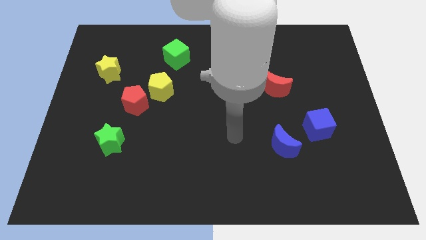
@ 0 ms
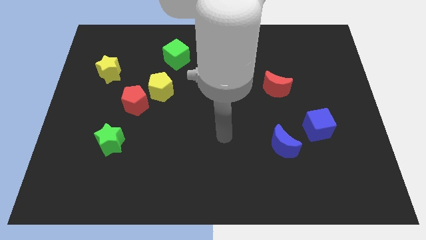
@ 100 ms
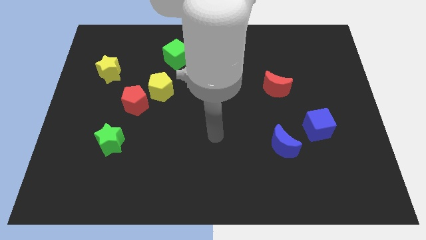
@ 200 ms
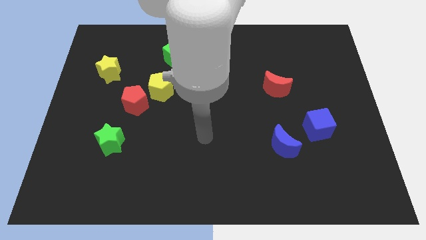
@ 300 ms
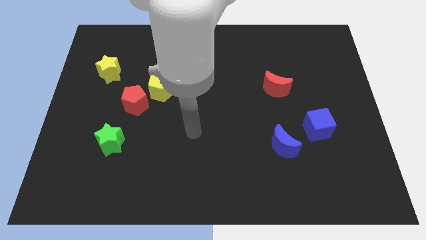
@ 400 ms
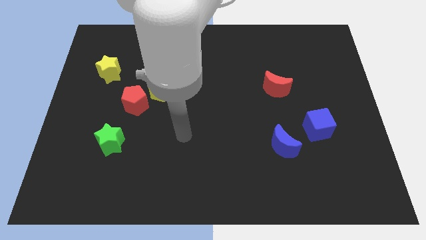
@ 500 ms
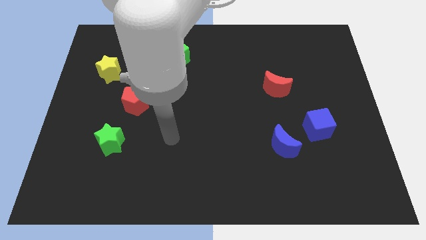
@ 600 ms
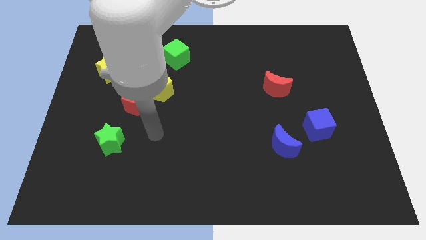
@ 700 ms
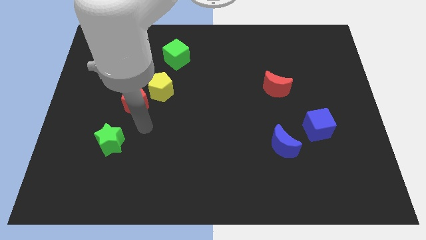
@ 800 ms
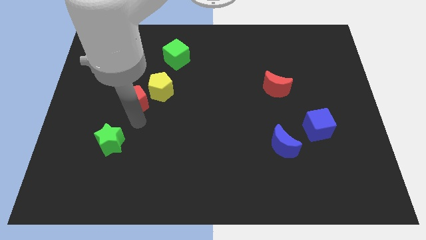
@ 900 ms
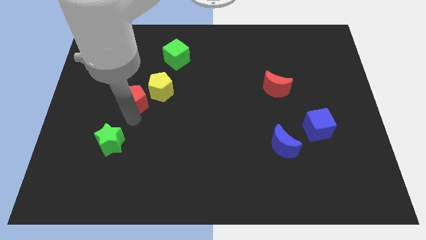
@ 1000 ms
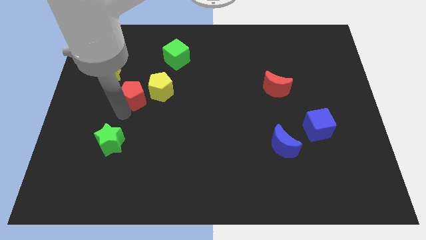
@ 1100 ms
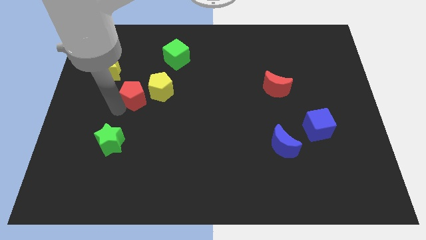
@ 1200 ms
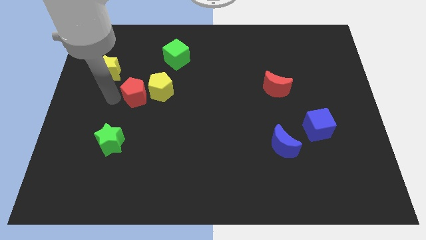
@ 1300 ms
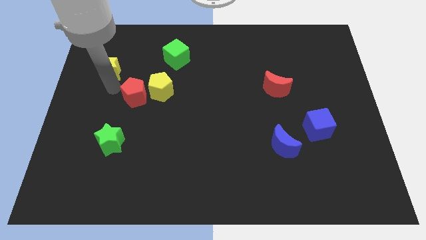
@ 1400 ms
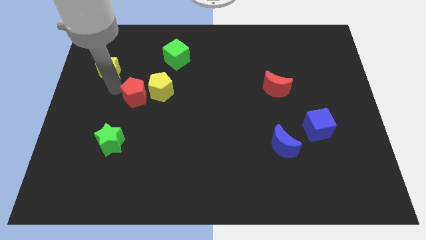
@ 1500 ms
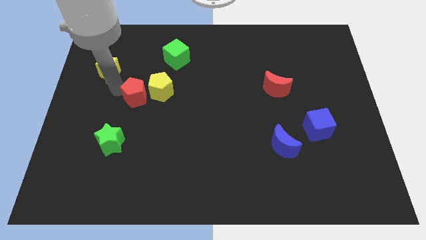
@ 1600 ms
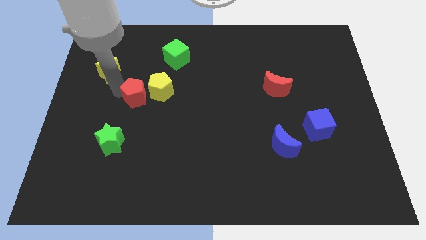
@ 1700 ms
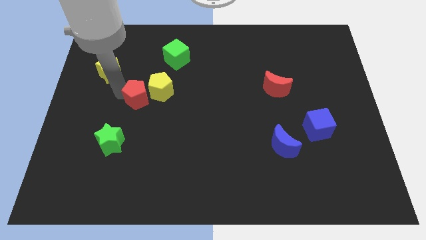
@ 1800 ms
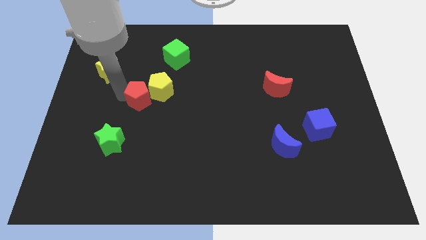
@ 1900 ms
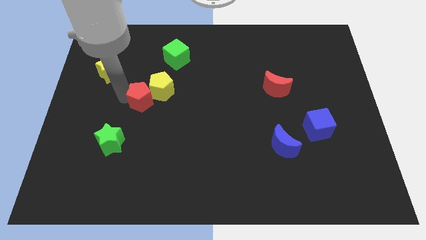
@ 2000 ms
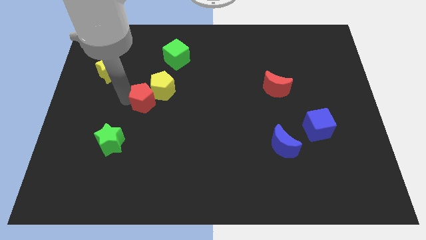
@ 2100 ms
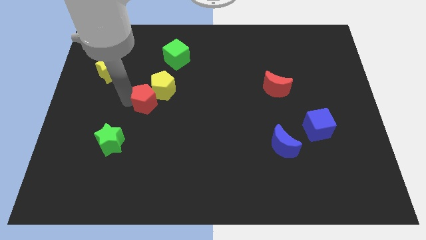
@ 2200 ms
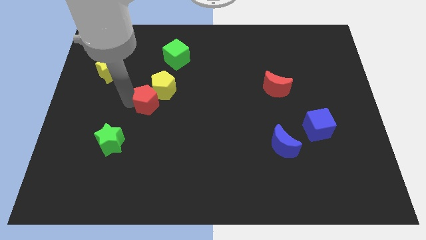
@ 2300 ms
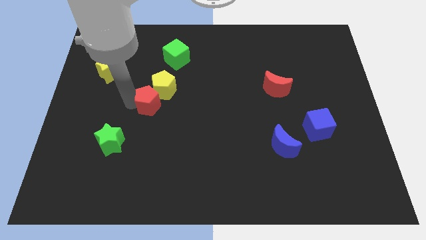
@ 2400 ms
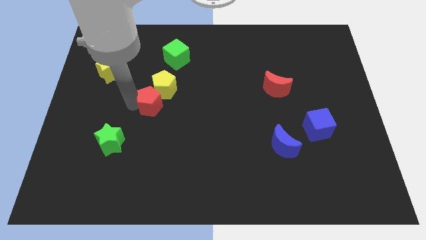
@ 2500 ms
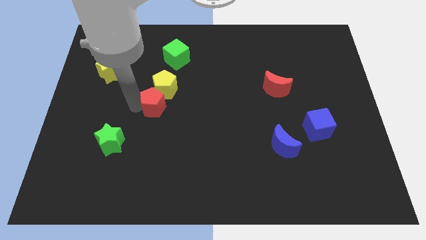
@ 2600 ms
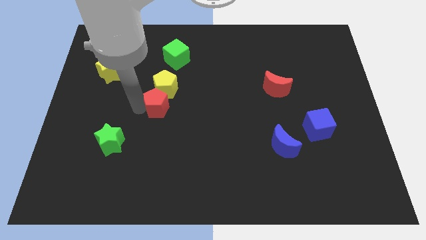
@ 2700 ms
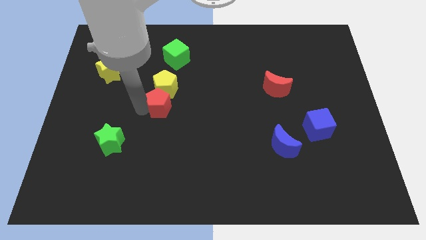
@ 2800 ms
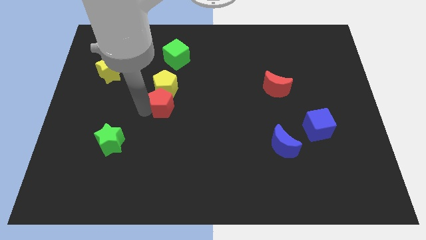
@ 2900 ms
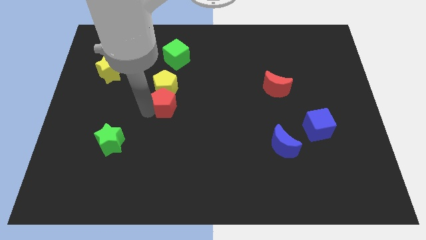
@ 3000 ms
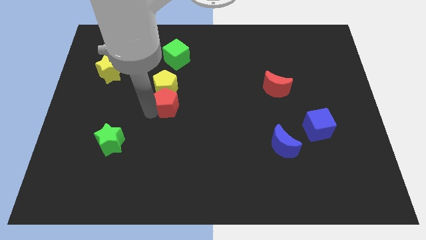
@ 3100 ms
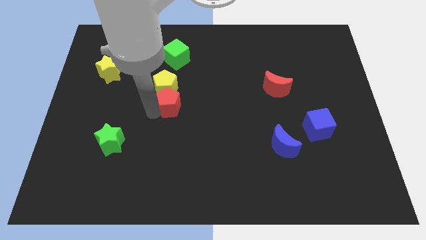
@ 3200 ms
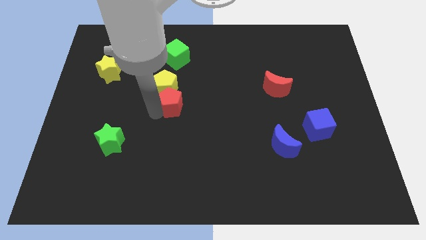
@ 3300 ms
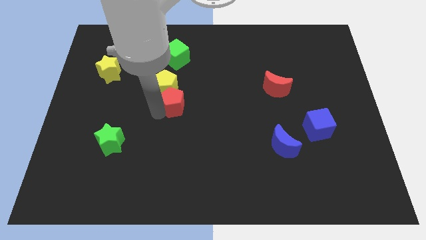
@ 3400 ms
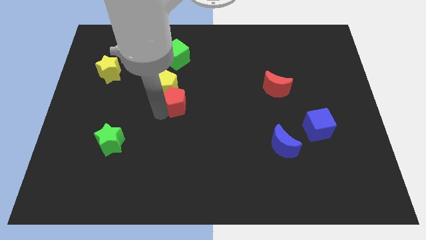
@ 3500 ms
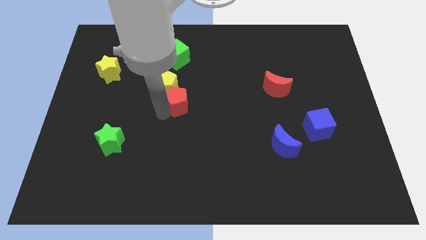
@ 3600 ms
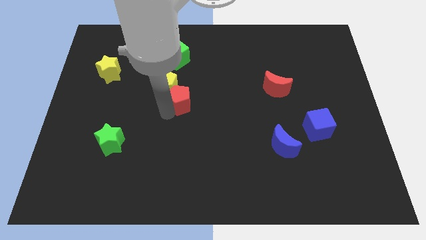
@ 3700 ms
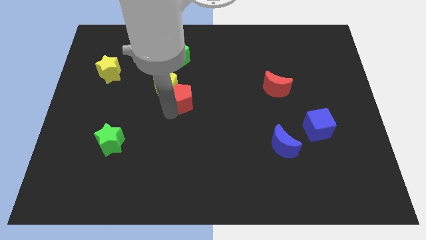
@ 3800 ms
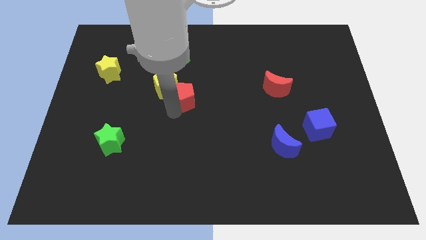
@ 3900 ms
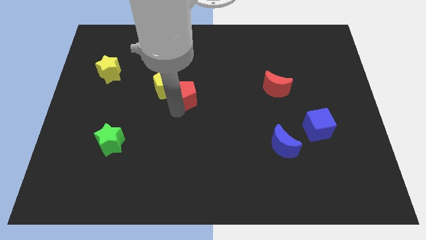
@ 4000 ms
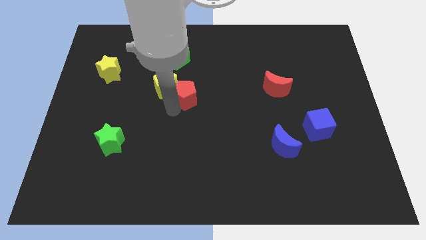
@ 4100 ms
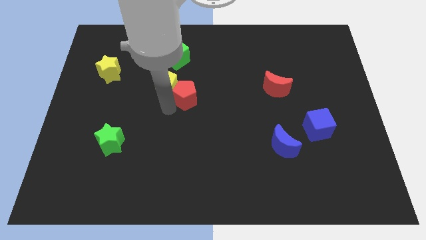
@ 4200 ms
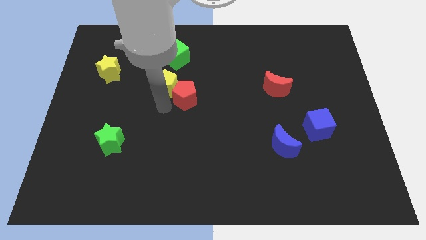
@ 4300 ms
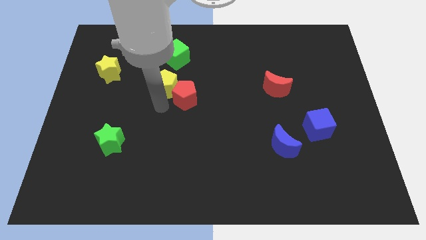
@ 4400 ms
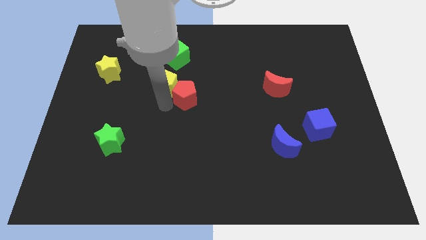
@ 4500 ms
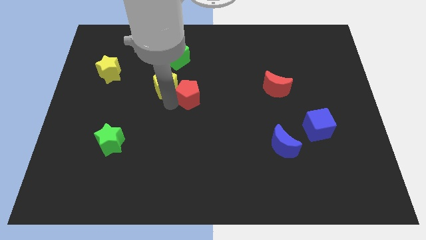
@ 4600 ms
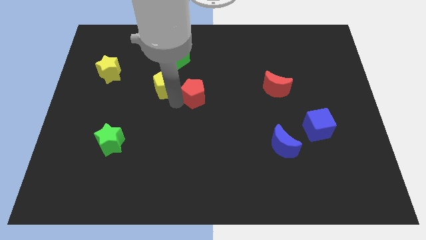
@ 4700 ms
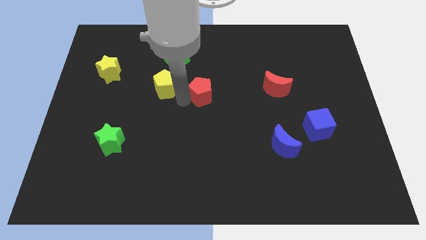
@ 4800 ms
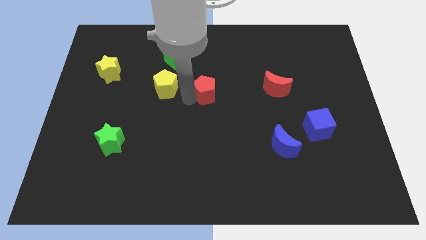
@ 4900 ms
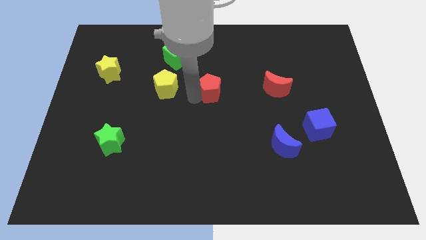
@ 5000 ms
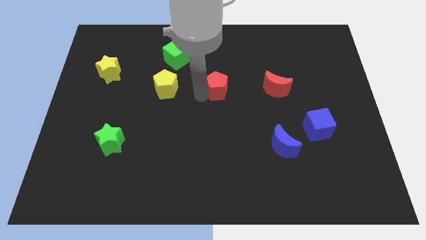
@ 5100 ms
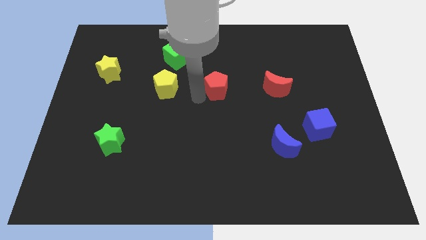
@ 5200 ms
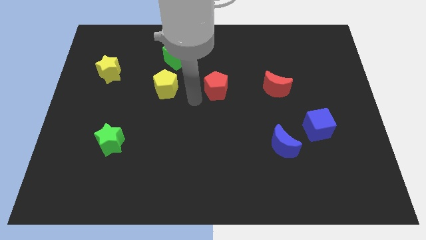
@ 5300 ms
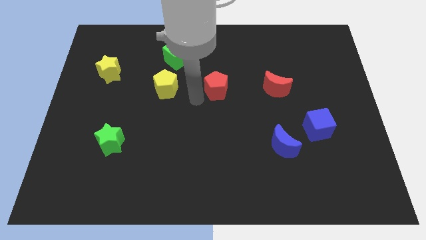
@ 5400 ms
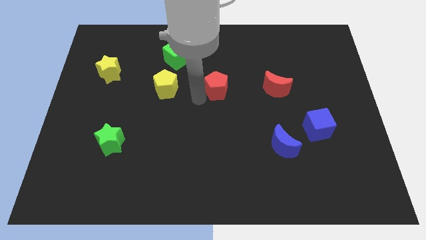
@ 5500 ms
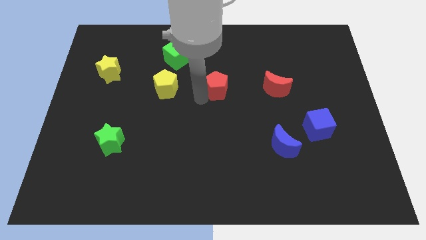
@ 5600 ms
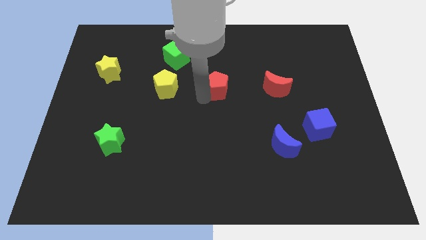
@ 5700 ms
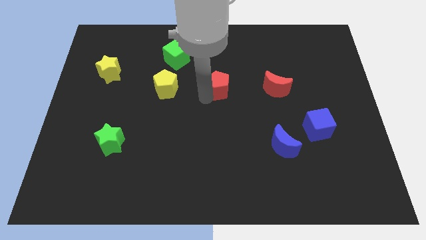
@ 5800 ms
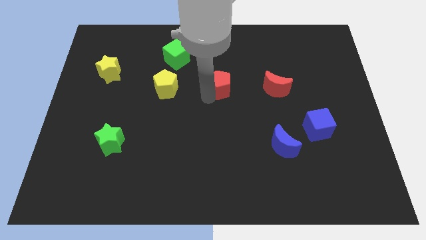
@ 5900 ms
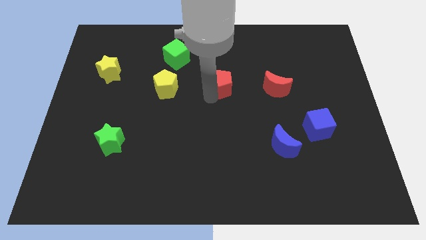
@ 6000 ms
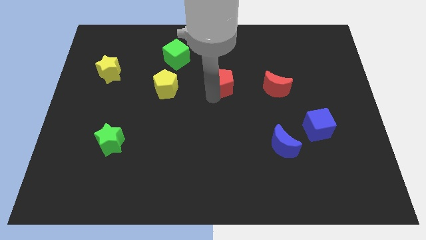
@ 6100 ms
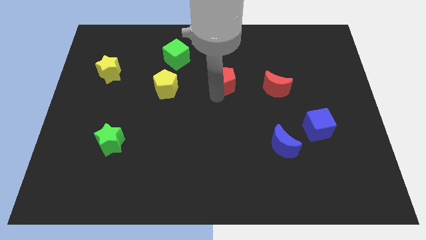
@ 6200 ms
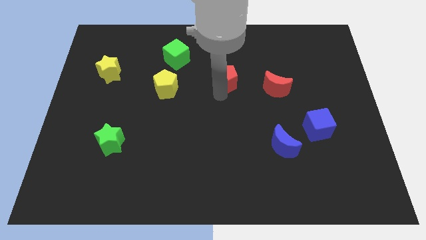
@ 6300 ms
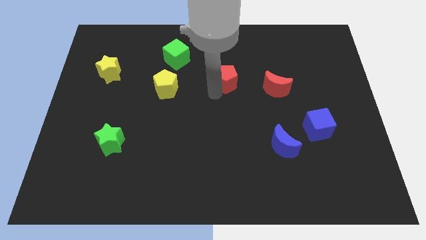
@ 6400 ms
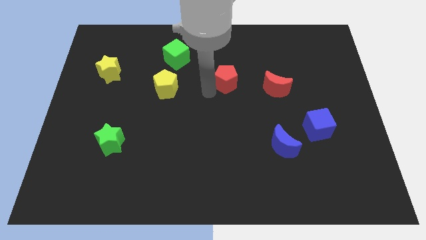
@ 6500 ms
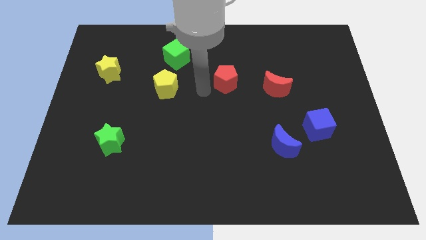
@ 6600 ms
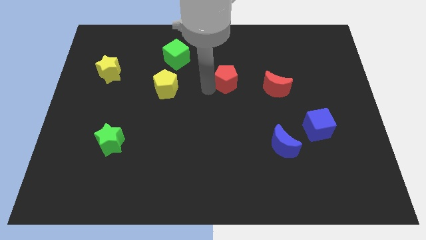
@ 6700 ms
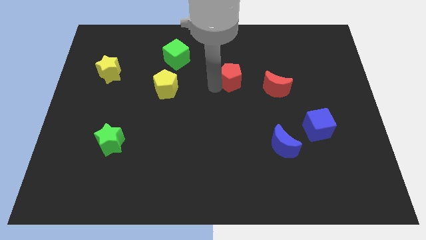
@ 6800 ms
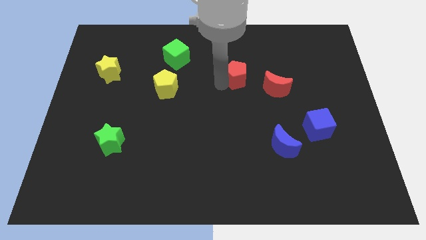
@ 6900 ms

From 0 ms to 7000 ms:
push the red pentagon diagonally up and to the left of the red moon

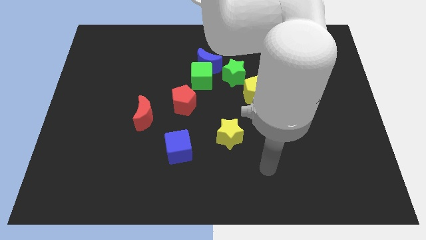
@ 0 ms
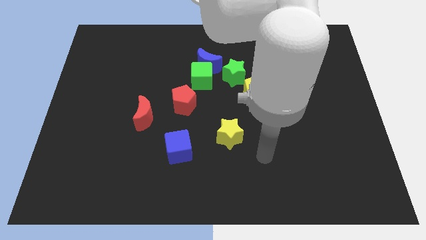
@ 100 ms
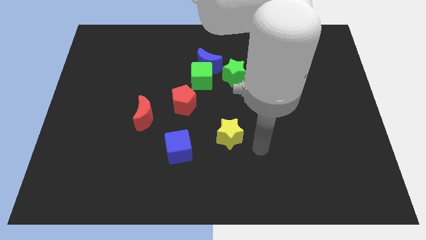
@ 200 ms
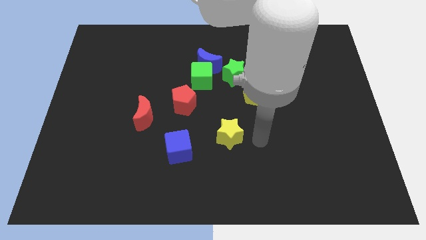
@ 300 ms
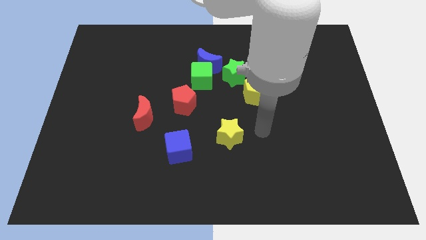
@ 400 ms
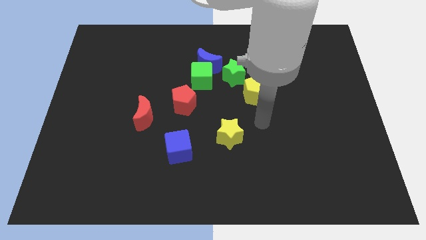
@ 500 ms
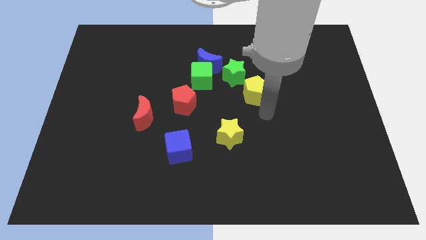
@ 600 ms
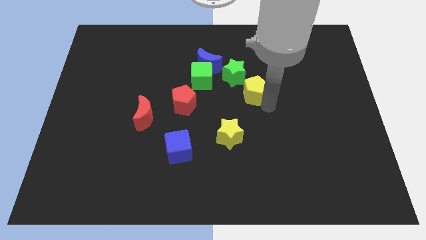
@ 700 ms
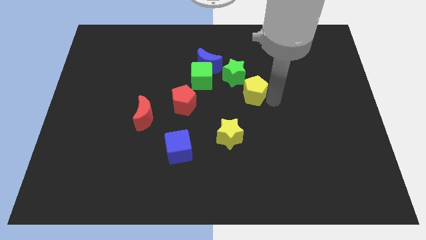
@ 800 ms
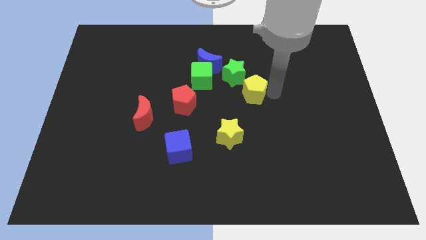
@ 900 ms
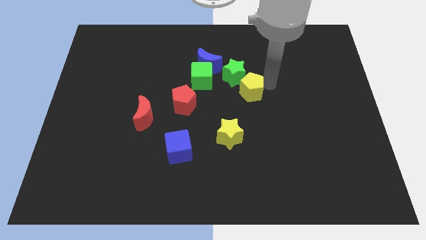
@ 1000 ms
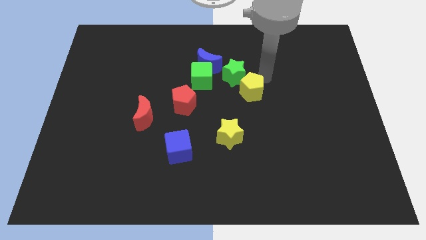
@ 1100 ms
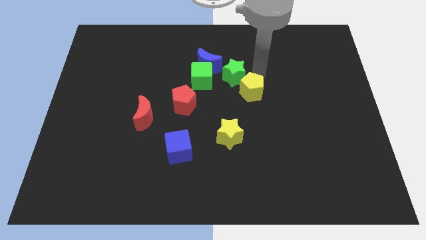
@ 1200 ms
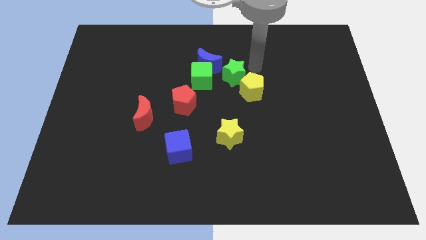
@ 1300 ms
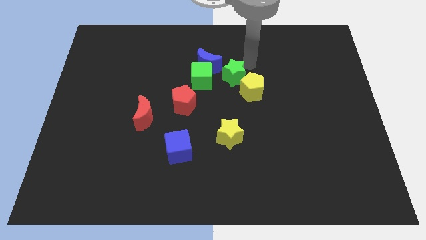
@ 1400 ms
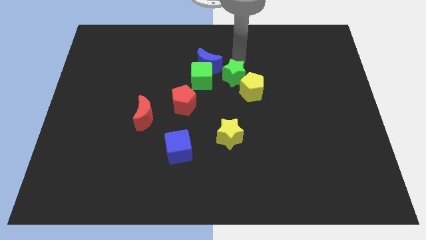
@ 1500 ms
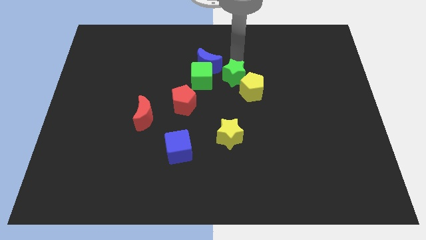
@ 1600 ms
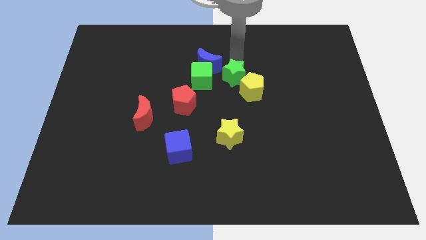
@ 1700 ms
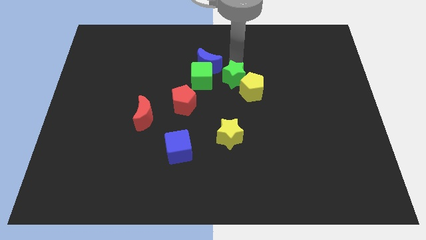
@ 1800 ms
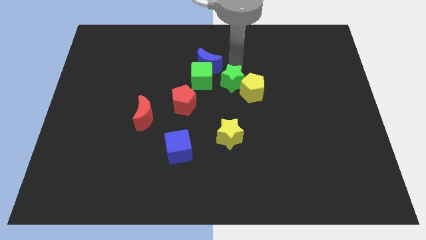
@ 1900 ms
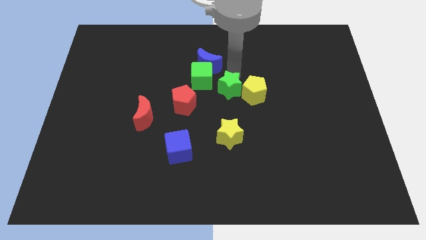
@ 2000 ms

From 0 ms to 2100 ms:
push the green star to the bottom left of the yellow pentagon
